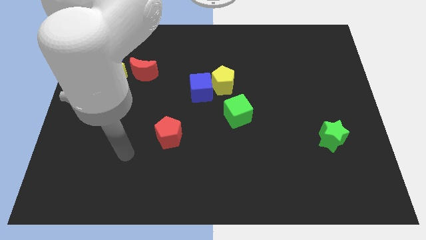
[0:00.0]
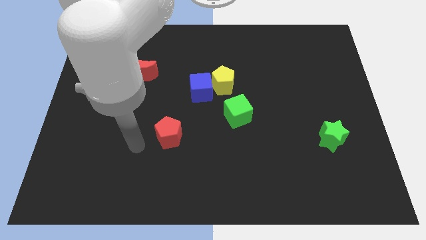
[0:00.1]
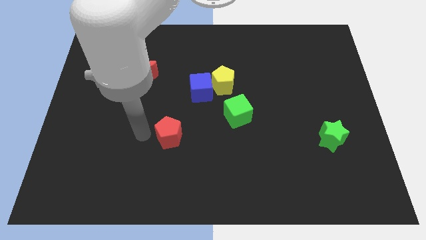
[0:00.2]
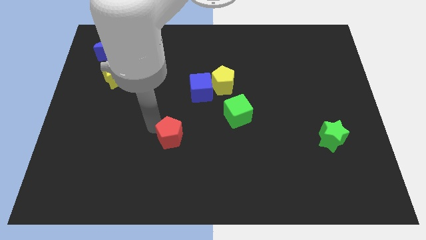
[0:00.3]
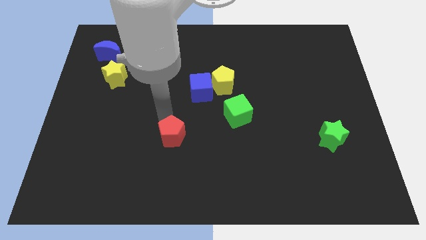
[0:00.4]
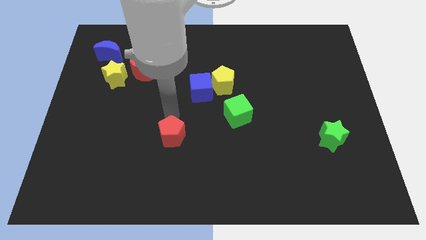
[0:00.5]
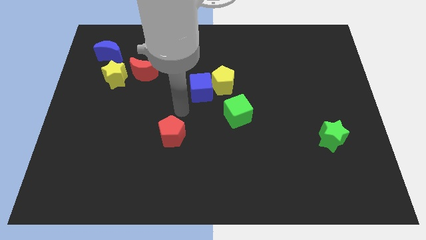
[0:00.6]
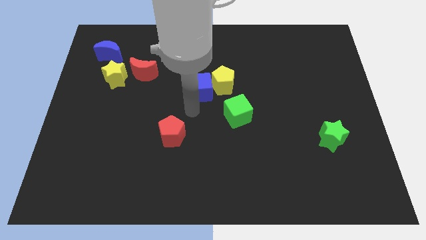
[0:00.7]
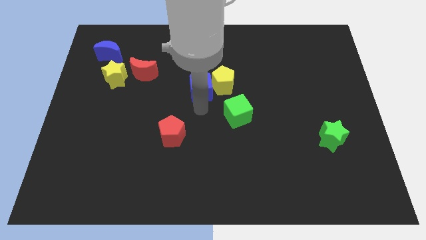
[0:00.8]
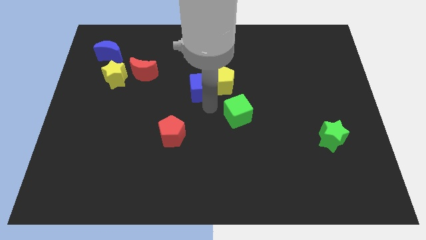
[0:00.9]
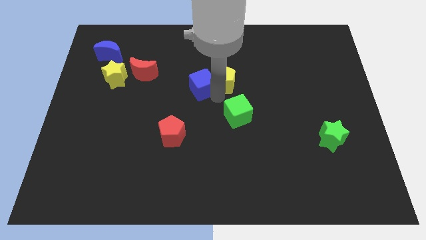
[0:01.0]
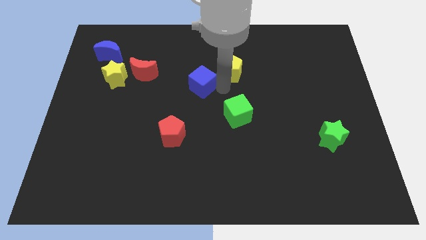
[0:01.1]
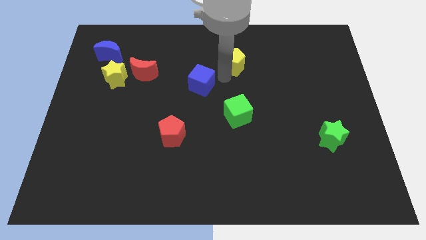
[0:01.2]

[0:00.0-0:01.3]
separate the blue cube from the yellow pentagon

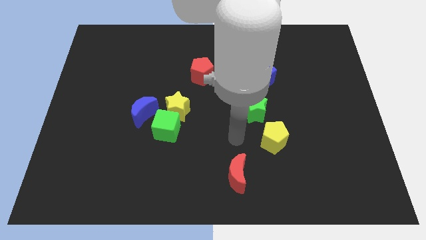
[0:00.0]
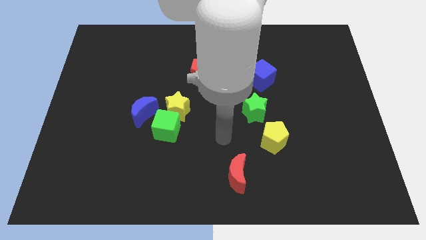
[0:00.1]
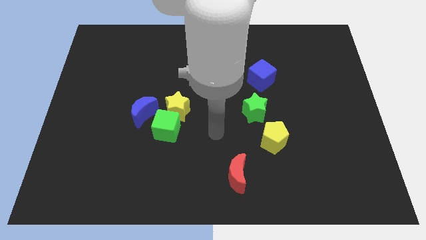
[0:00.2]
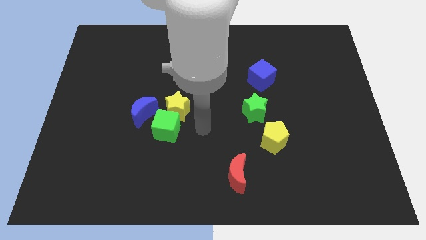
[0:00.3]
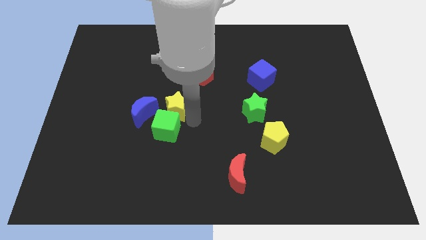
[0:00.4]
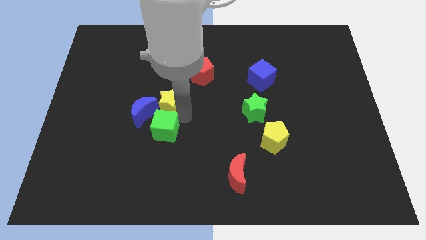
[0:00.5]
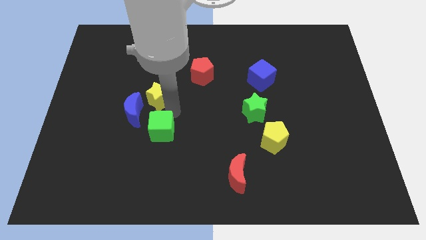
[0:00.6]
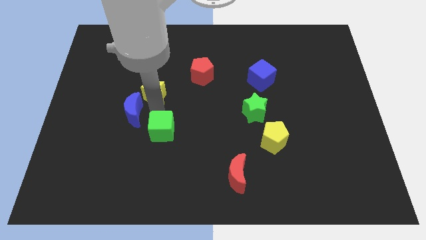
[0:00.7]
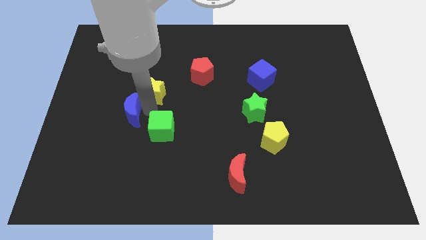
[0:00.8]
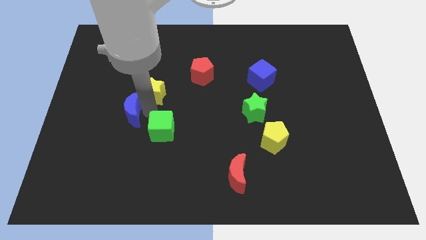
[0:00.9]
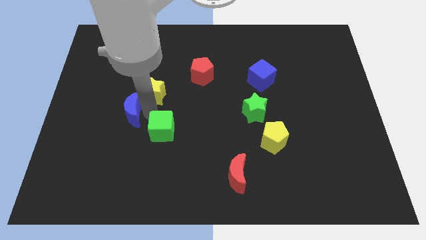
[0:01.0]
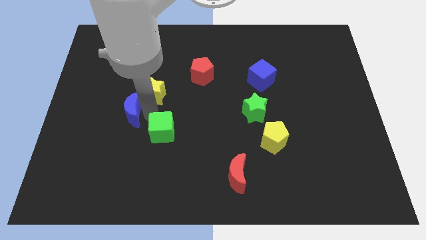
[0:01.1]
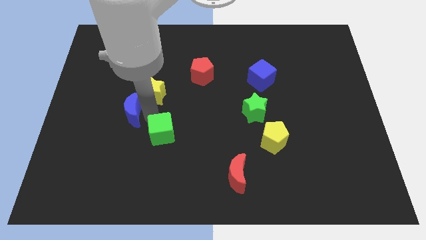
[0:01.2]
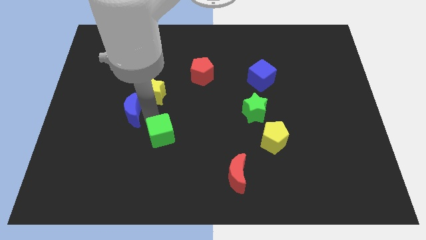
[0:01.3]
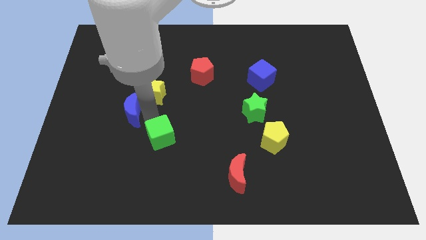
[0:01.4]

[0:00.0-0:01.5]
move the green cube away from the yellow star and blue moon

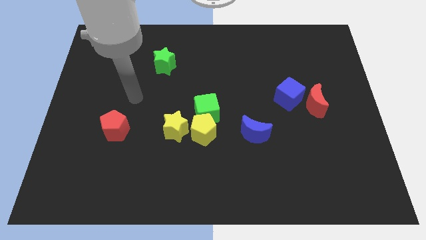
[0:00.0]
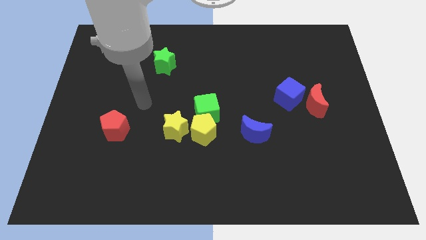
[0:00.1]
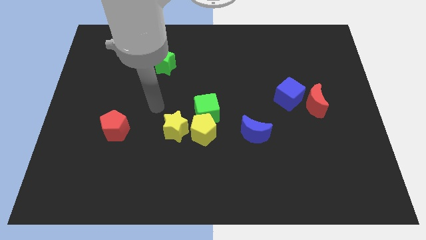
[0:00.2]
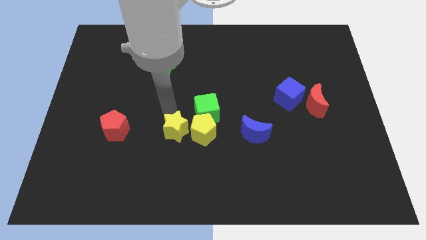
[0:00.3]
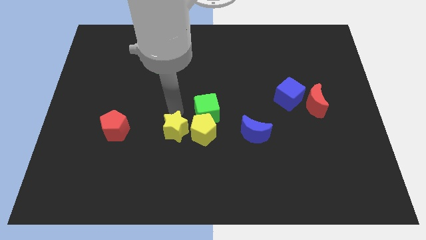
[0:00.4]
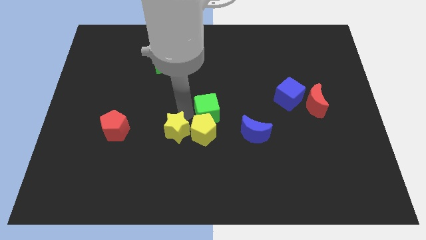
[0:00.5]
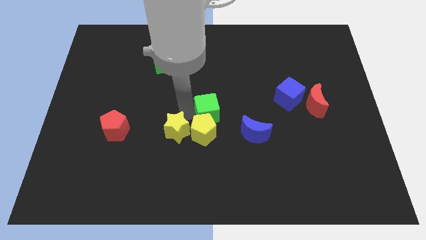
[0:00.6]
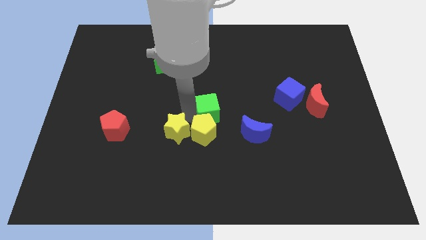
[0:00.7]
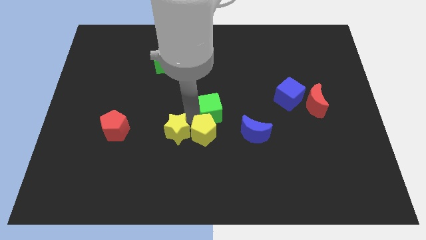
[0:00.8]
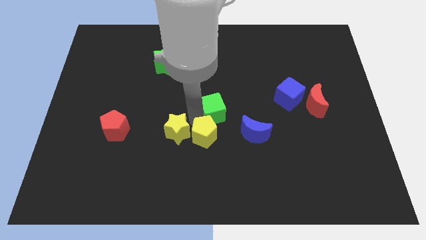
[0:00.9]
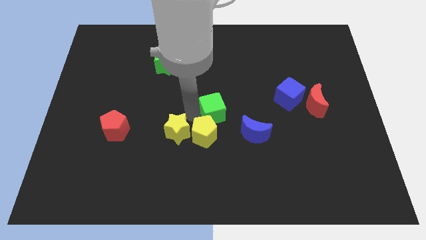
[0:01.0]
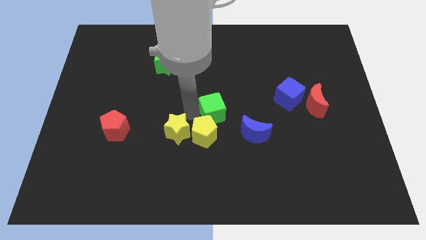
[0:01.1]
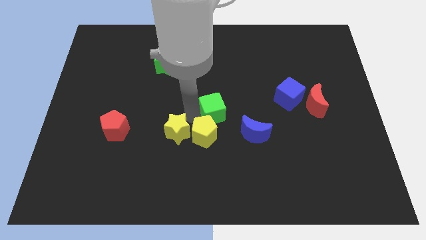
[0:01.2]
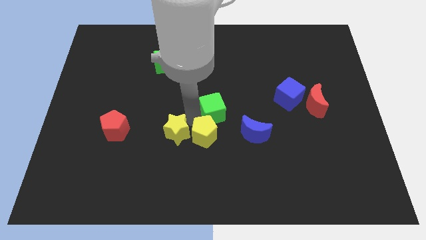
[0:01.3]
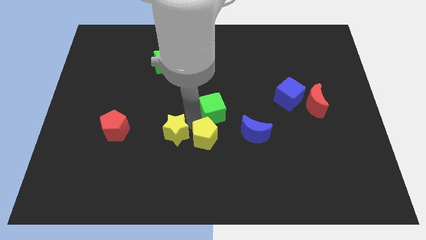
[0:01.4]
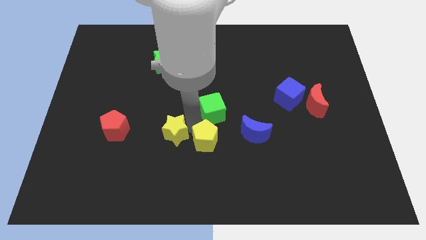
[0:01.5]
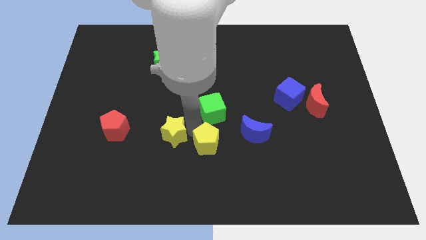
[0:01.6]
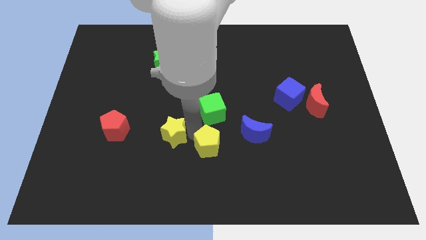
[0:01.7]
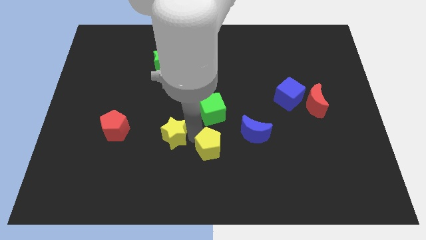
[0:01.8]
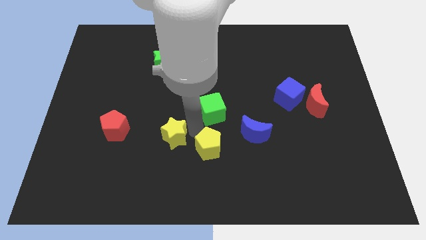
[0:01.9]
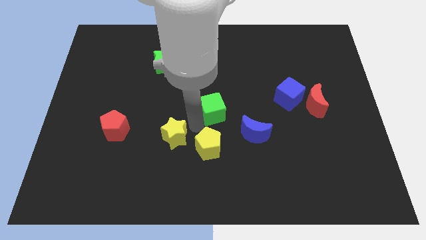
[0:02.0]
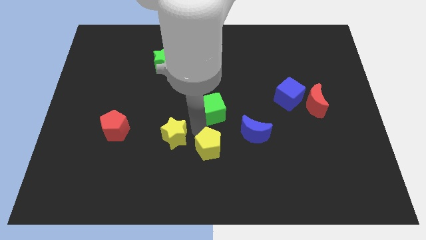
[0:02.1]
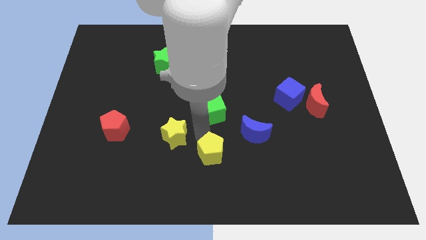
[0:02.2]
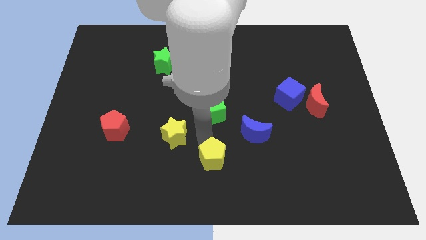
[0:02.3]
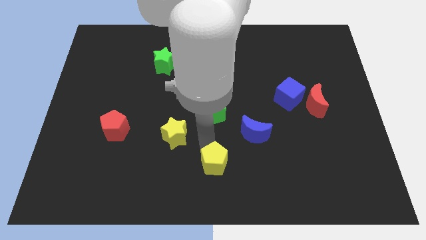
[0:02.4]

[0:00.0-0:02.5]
separate the yellow pentagon from the green cube and yellow star

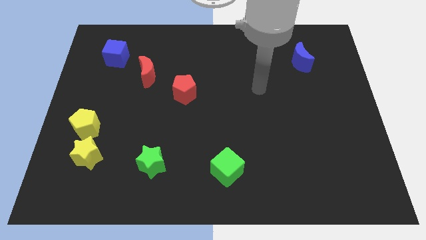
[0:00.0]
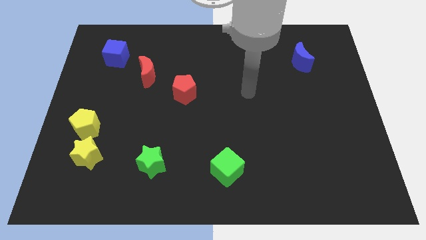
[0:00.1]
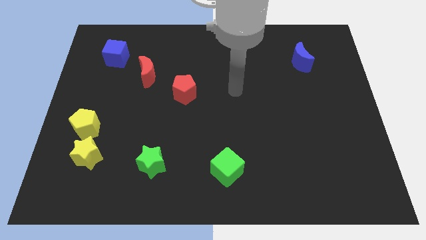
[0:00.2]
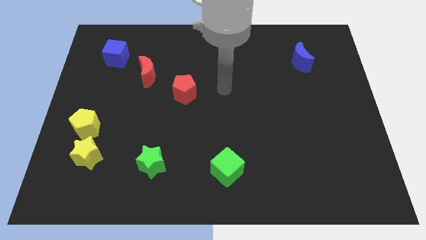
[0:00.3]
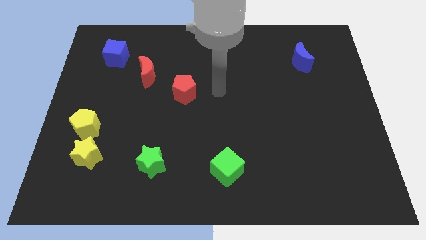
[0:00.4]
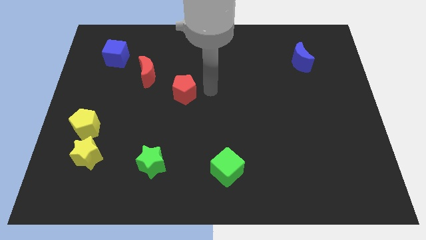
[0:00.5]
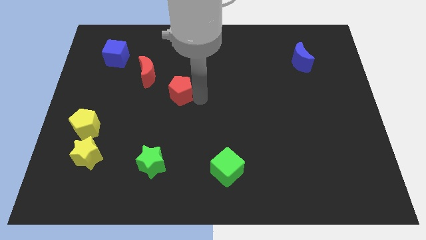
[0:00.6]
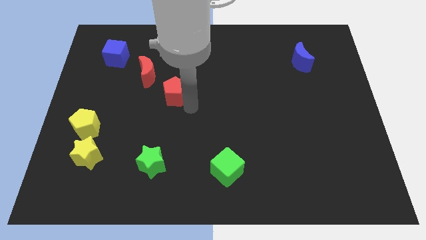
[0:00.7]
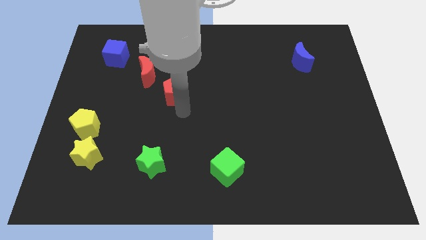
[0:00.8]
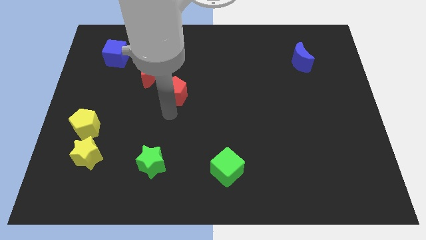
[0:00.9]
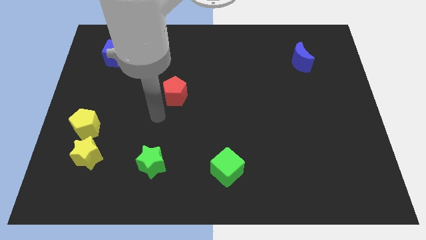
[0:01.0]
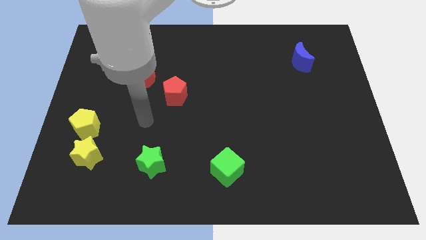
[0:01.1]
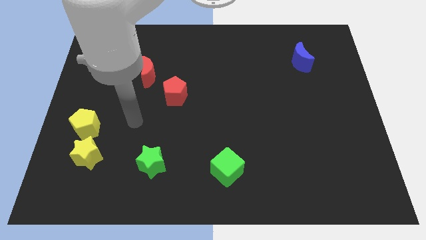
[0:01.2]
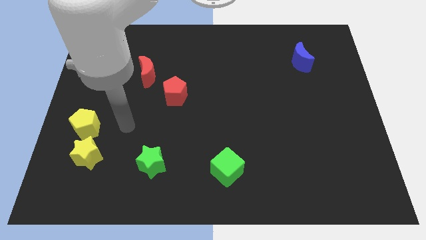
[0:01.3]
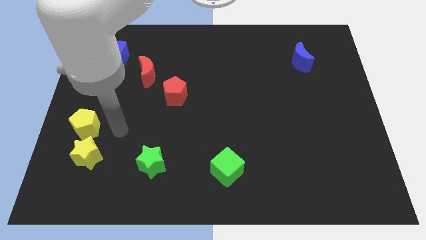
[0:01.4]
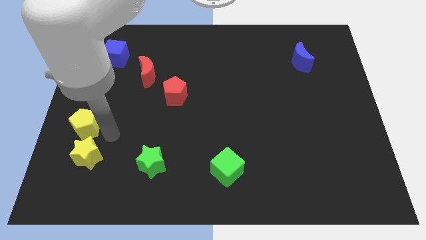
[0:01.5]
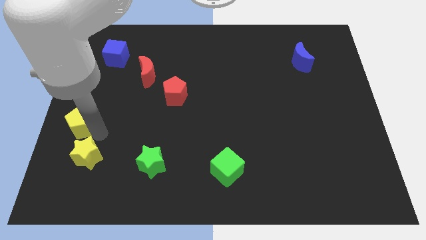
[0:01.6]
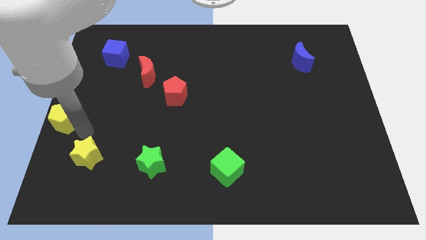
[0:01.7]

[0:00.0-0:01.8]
pull the yellow star apart from the yellow pentagon

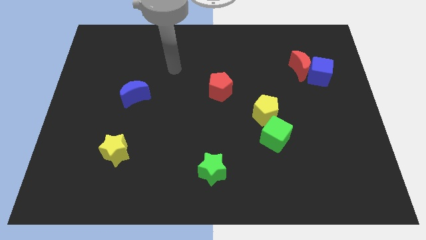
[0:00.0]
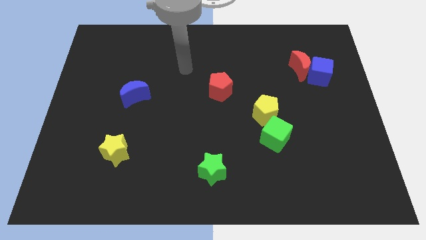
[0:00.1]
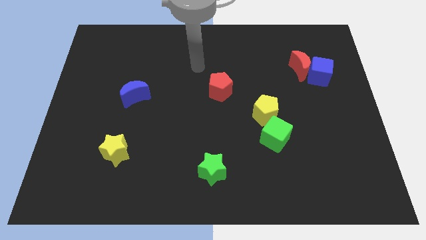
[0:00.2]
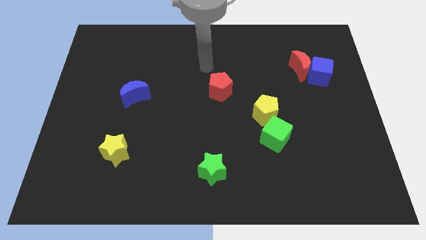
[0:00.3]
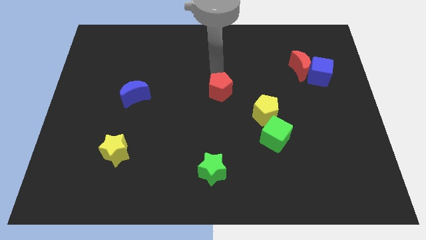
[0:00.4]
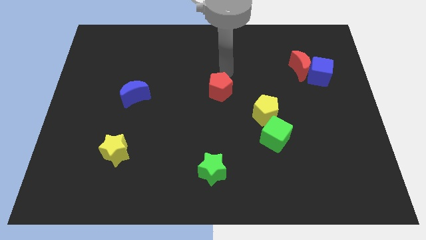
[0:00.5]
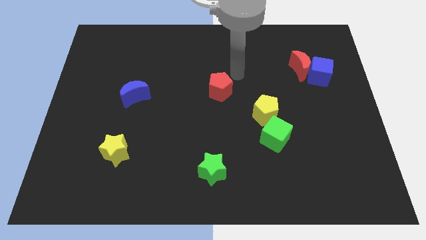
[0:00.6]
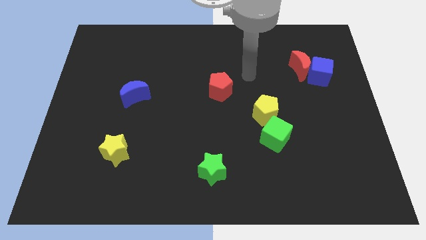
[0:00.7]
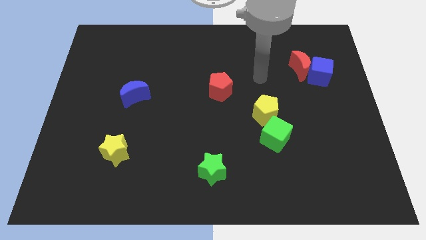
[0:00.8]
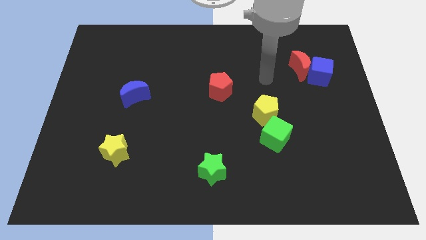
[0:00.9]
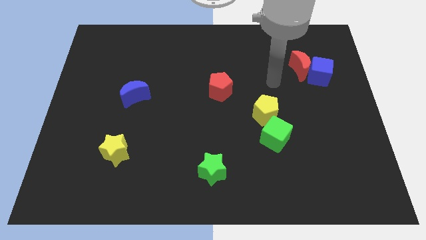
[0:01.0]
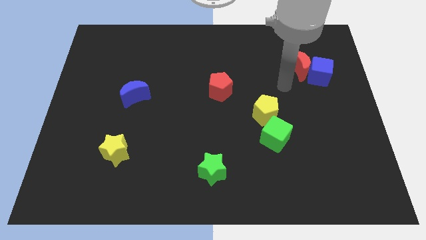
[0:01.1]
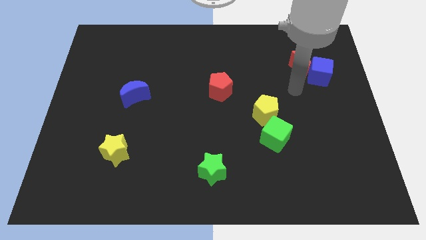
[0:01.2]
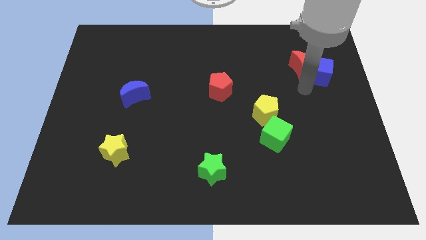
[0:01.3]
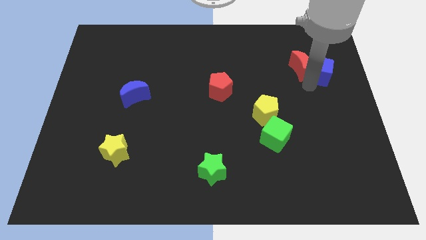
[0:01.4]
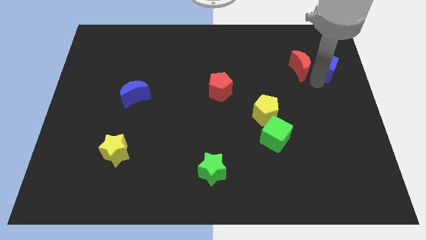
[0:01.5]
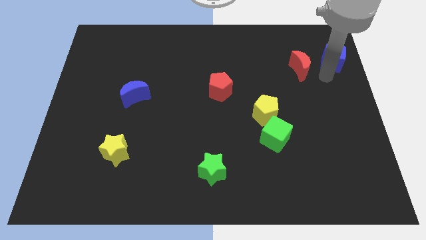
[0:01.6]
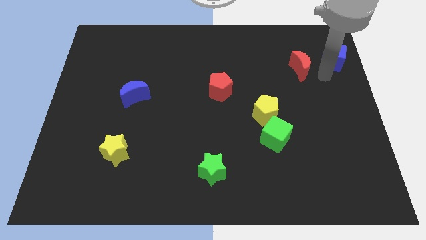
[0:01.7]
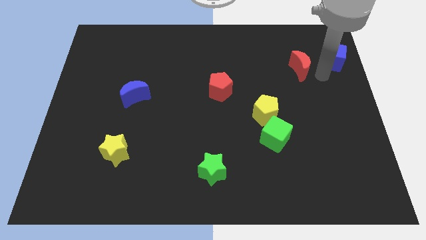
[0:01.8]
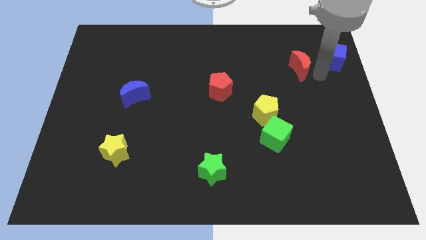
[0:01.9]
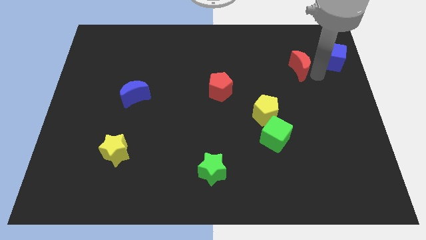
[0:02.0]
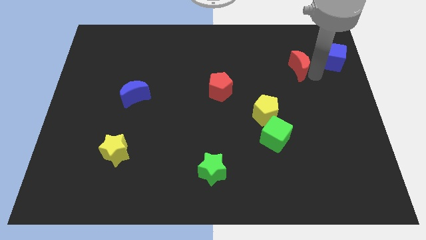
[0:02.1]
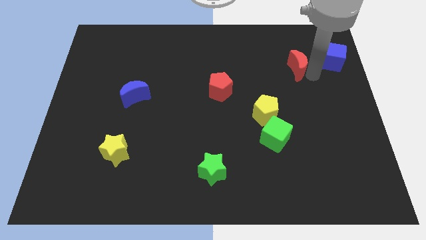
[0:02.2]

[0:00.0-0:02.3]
move the red moon away from the blue cube
